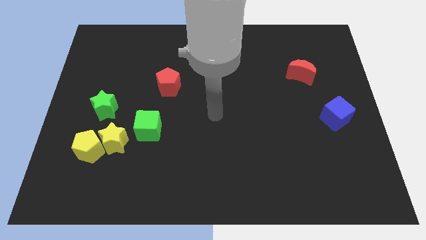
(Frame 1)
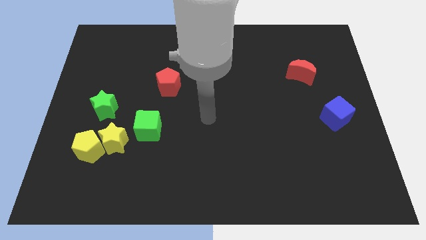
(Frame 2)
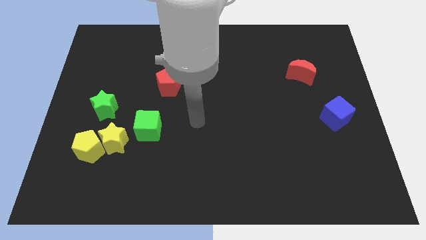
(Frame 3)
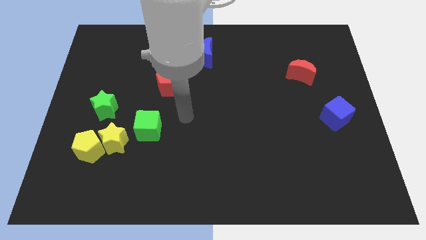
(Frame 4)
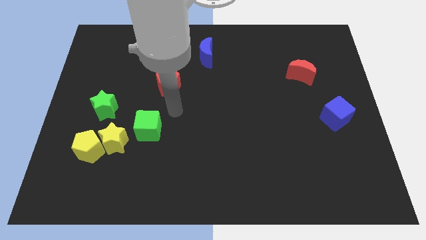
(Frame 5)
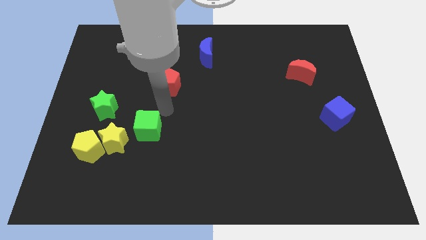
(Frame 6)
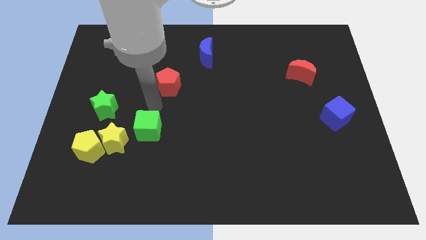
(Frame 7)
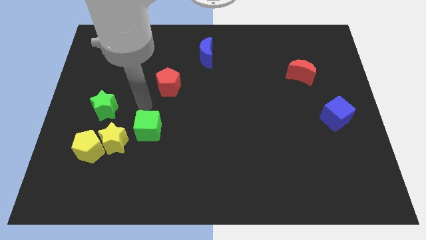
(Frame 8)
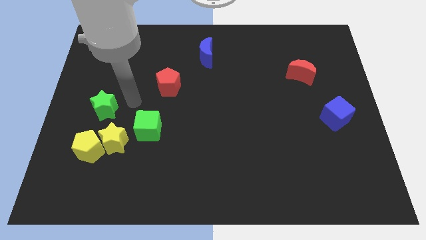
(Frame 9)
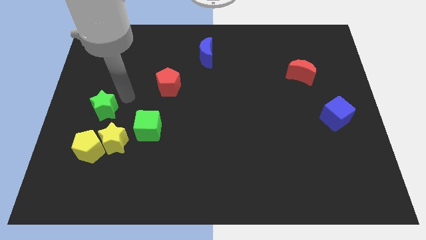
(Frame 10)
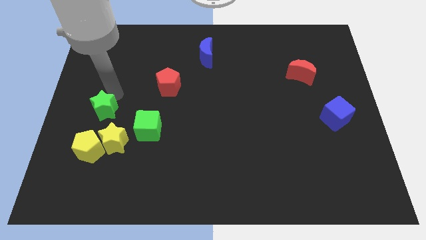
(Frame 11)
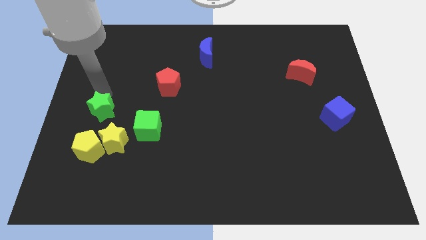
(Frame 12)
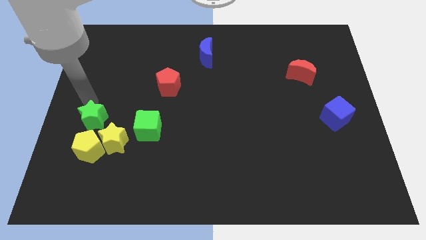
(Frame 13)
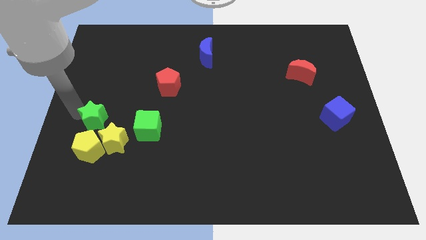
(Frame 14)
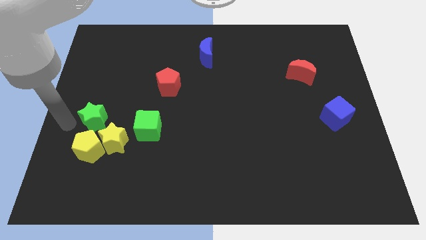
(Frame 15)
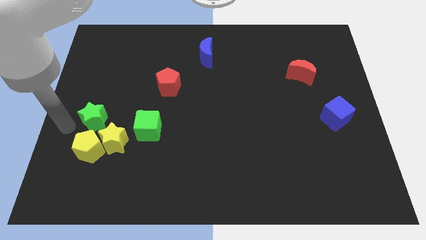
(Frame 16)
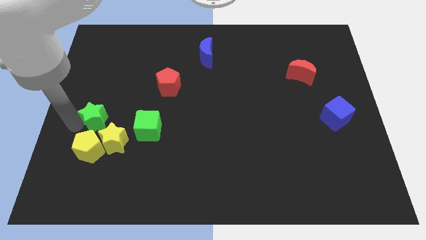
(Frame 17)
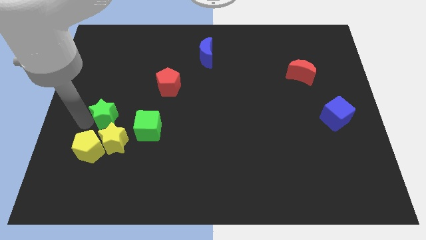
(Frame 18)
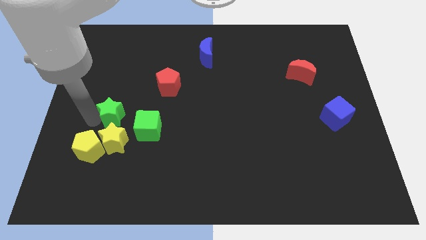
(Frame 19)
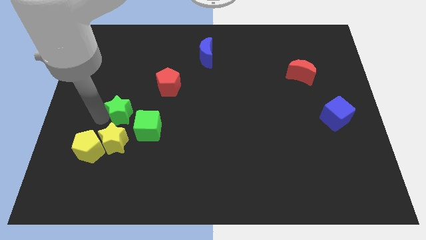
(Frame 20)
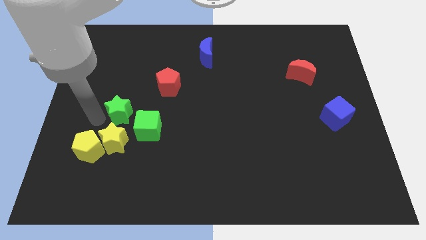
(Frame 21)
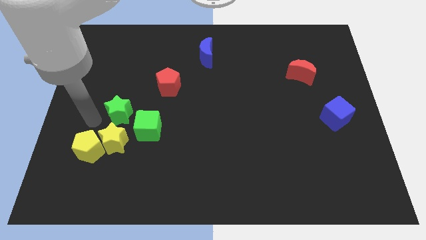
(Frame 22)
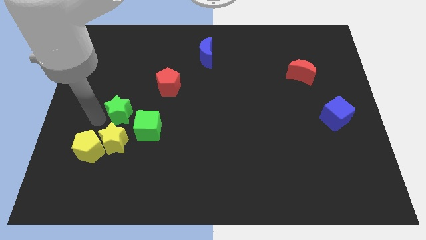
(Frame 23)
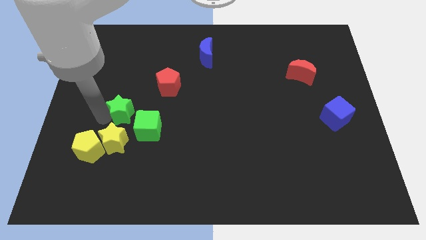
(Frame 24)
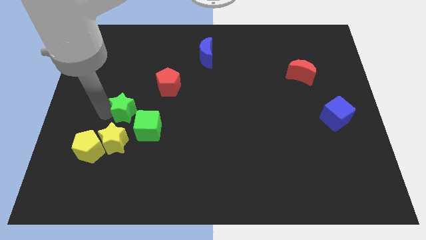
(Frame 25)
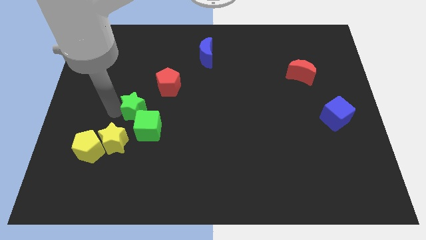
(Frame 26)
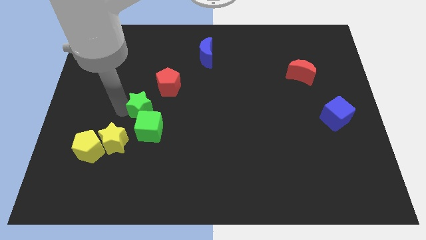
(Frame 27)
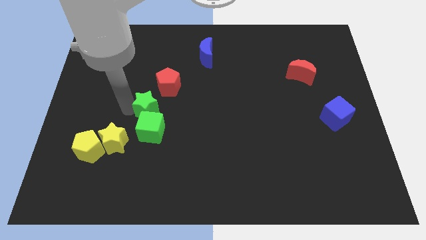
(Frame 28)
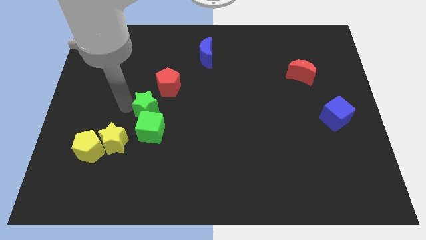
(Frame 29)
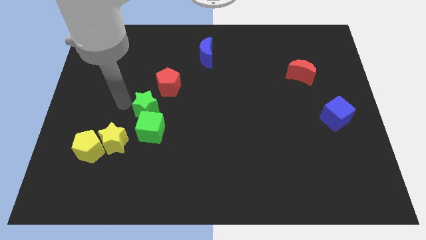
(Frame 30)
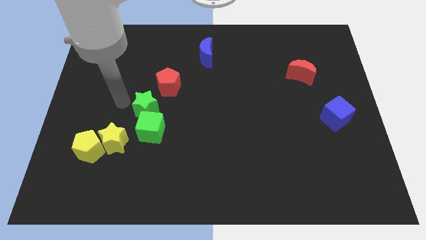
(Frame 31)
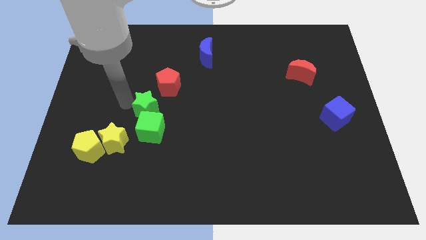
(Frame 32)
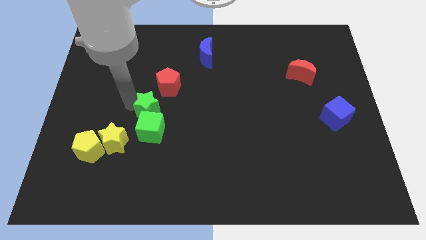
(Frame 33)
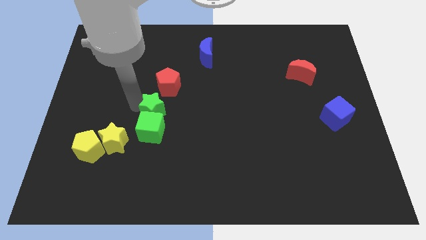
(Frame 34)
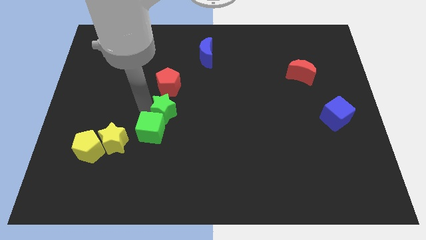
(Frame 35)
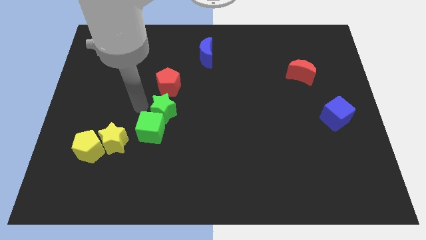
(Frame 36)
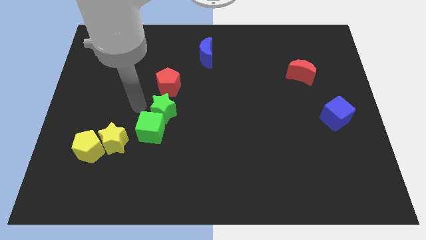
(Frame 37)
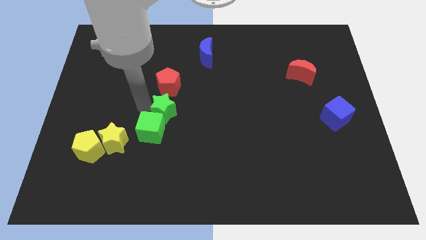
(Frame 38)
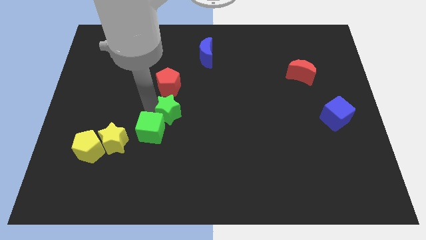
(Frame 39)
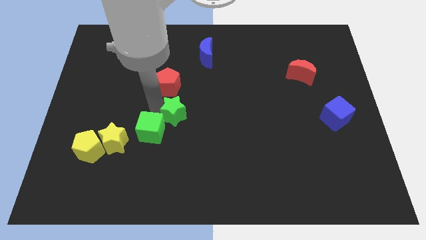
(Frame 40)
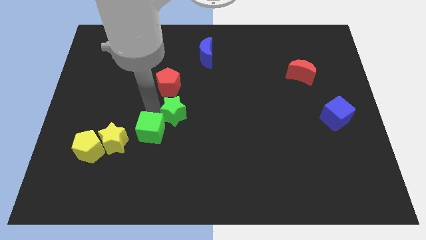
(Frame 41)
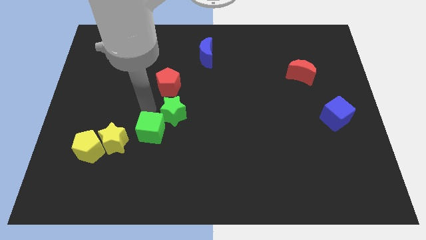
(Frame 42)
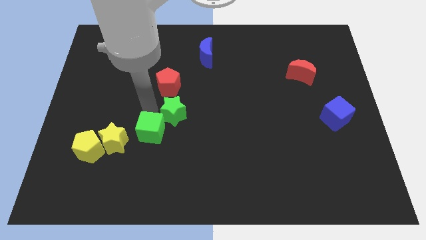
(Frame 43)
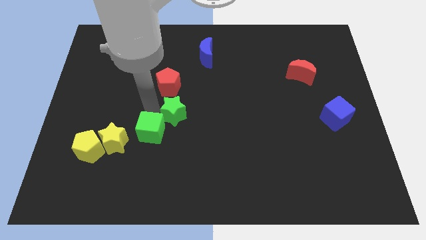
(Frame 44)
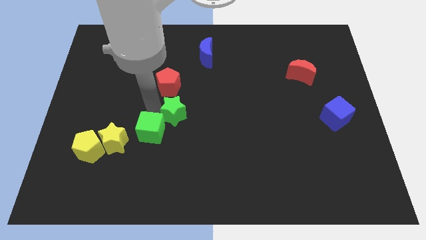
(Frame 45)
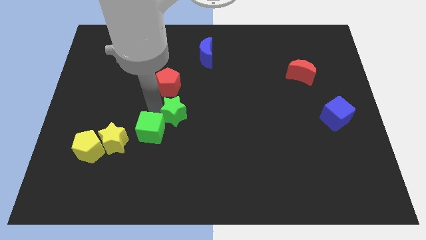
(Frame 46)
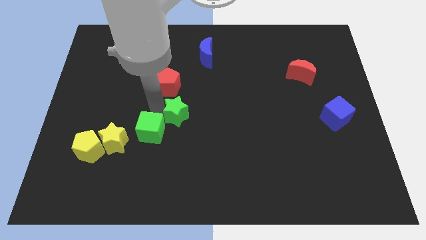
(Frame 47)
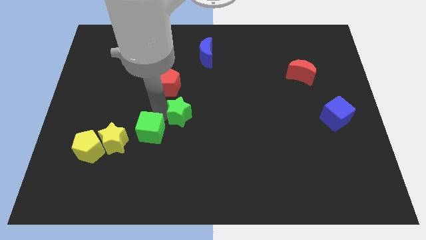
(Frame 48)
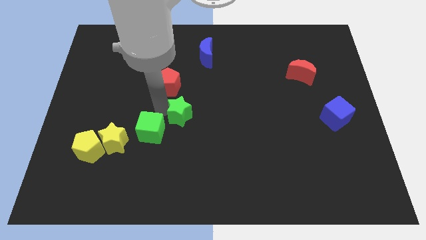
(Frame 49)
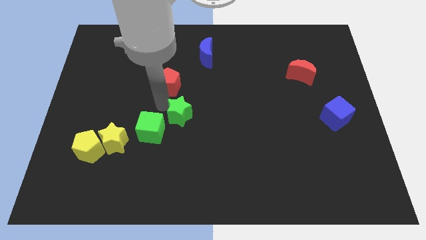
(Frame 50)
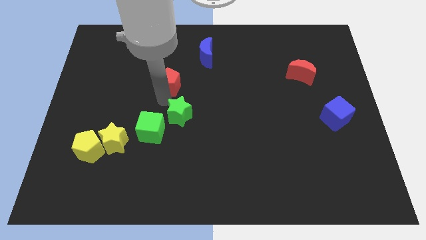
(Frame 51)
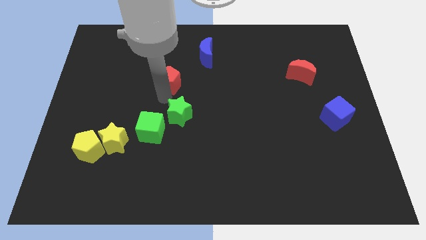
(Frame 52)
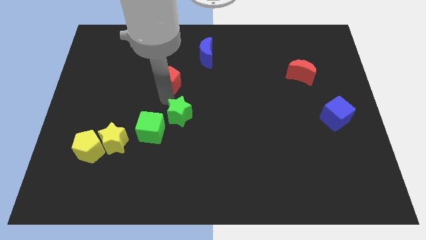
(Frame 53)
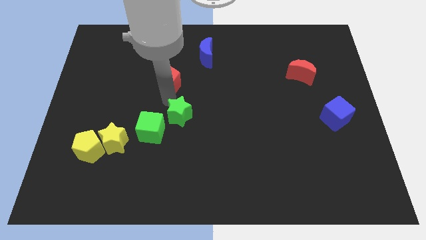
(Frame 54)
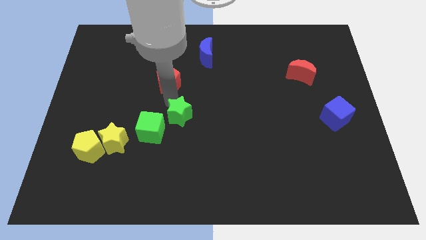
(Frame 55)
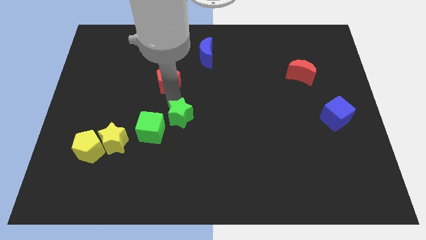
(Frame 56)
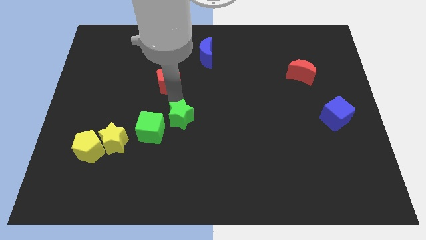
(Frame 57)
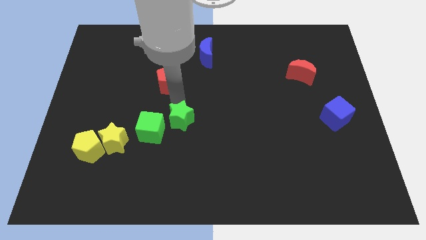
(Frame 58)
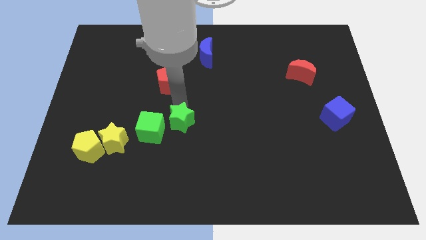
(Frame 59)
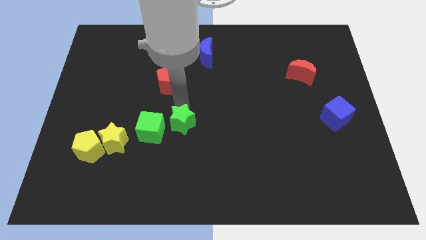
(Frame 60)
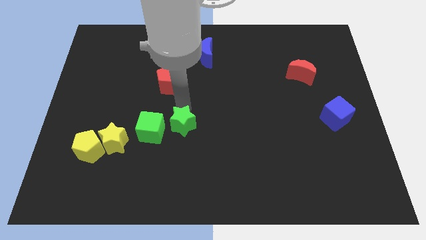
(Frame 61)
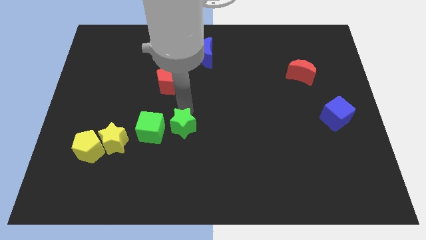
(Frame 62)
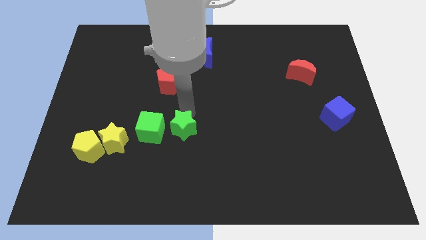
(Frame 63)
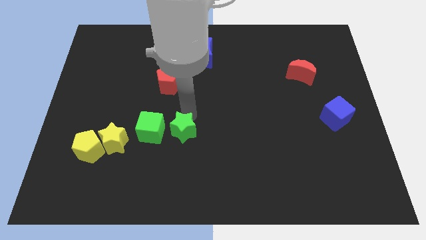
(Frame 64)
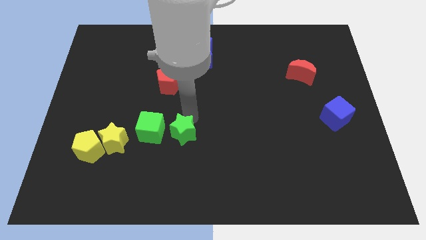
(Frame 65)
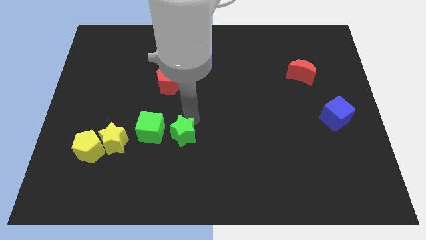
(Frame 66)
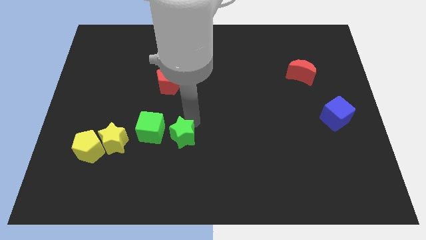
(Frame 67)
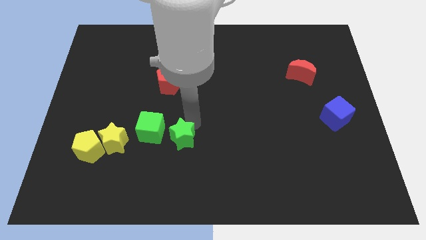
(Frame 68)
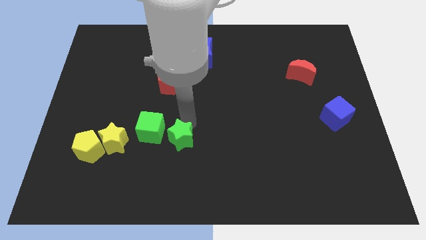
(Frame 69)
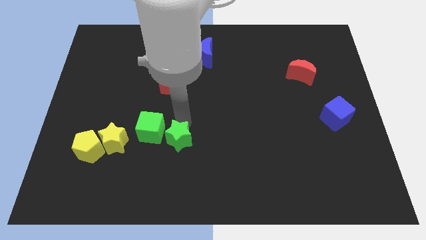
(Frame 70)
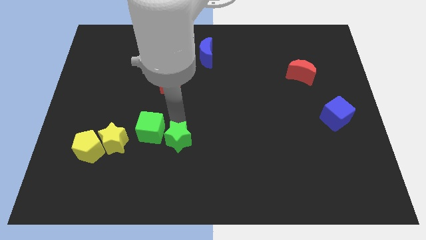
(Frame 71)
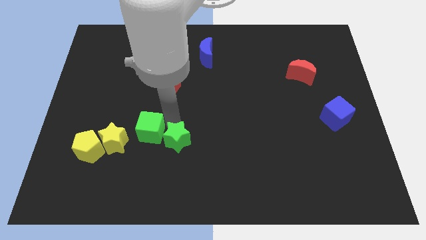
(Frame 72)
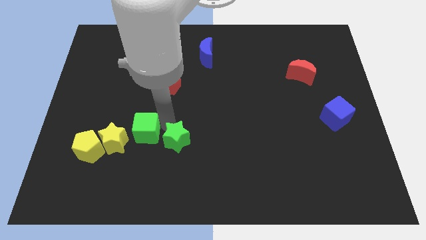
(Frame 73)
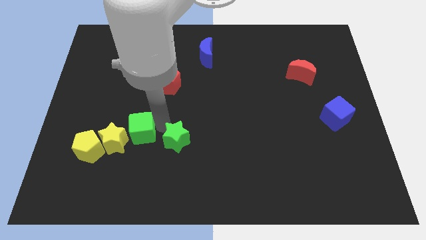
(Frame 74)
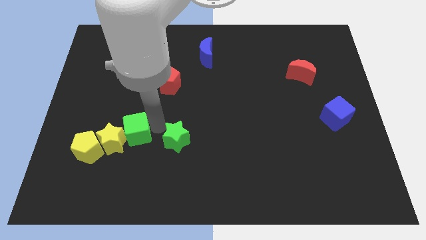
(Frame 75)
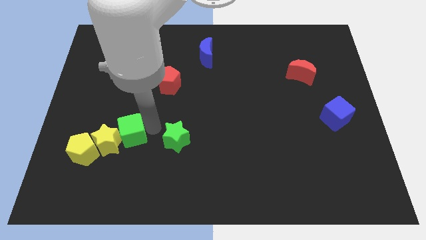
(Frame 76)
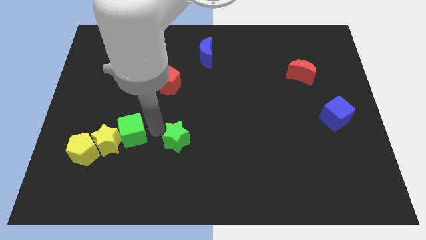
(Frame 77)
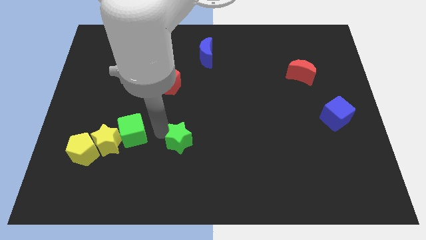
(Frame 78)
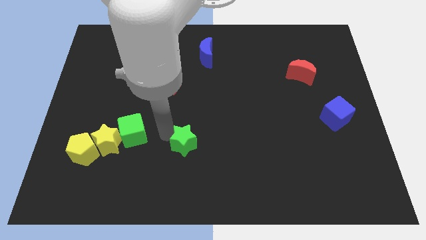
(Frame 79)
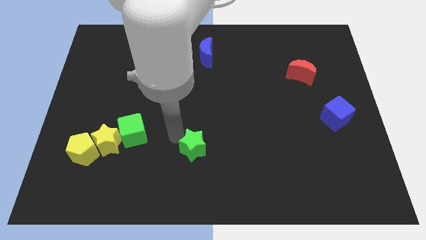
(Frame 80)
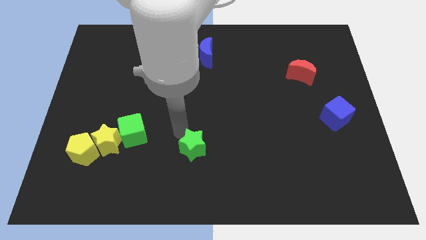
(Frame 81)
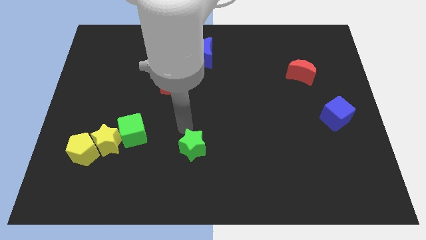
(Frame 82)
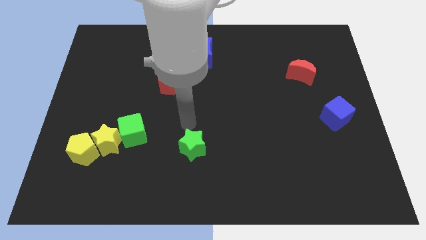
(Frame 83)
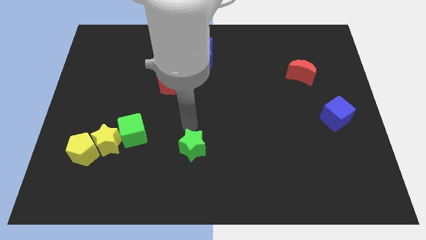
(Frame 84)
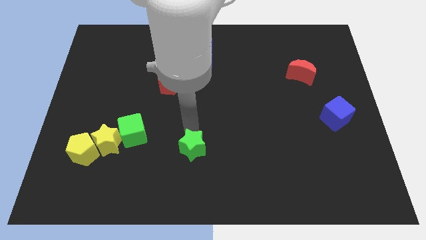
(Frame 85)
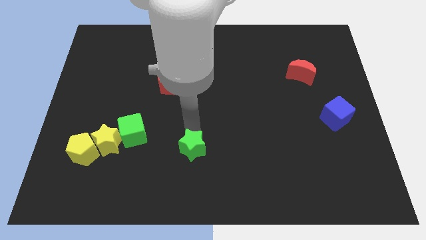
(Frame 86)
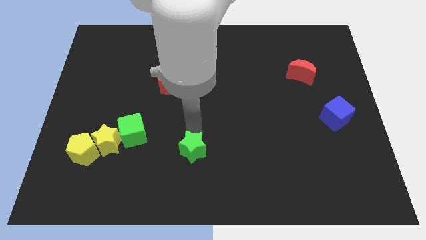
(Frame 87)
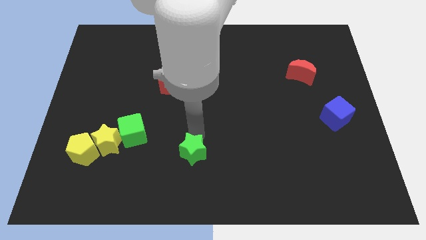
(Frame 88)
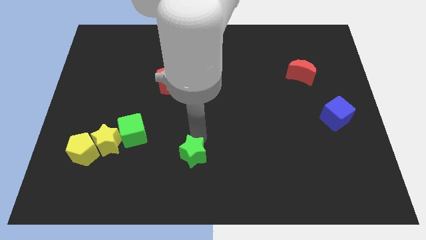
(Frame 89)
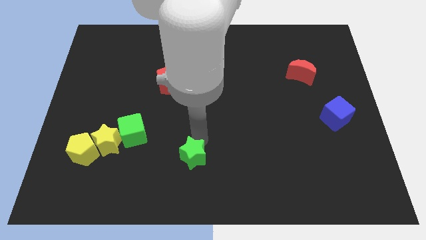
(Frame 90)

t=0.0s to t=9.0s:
put the green star to the bottom side
